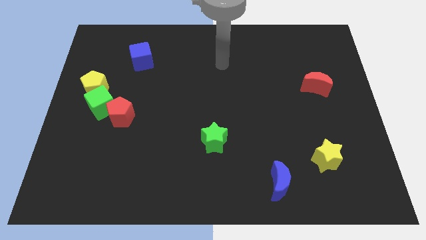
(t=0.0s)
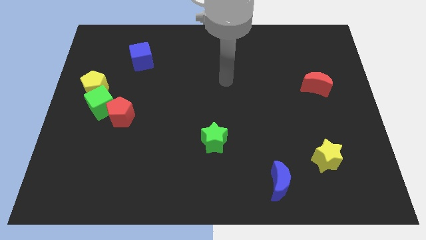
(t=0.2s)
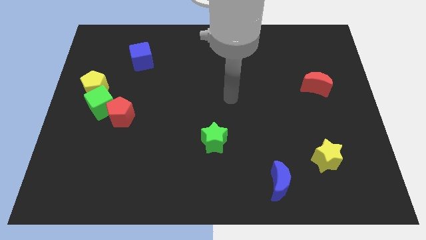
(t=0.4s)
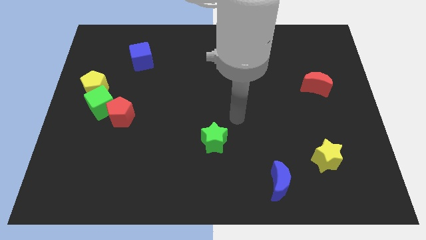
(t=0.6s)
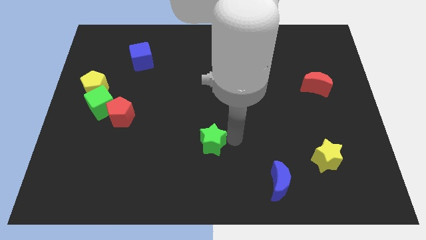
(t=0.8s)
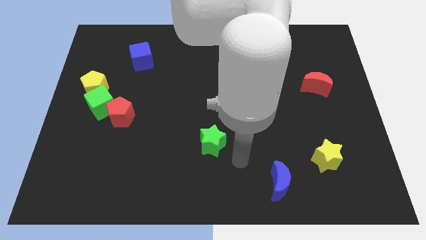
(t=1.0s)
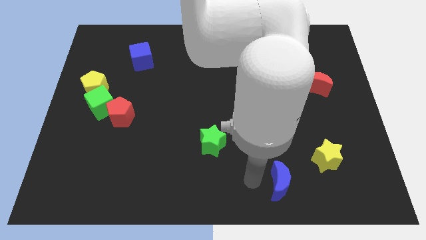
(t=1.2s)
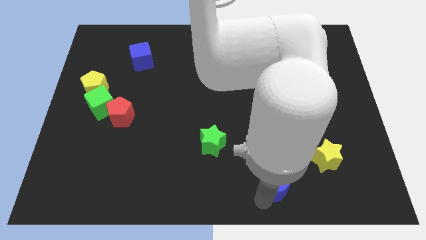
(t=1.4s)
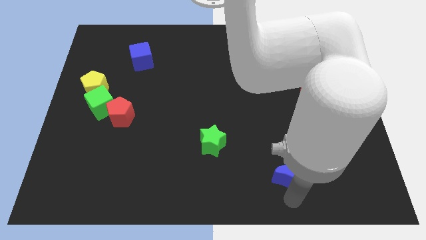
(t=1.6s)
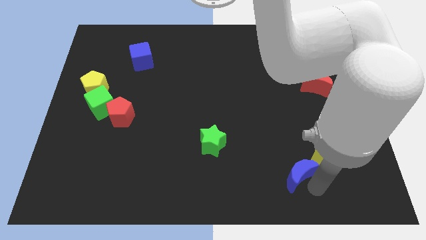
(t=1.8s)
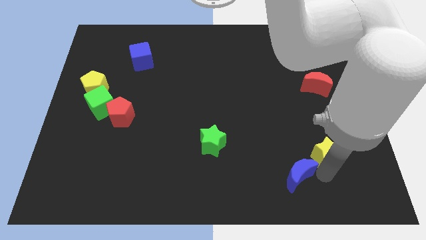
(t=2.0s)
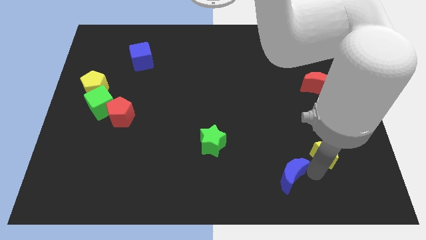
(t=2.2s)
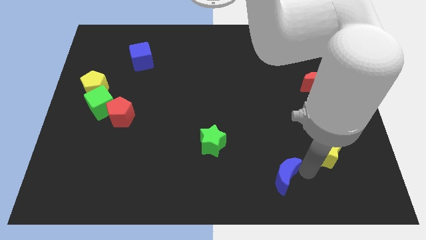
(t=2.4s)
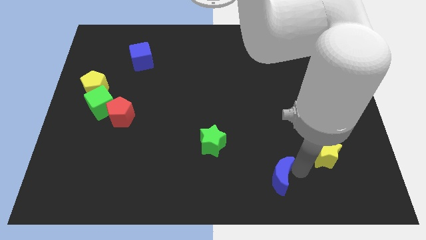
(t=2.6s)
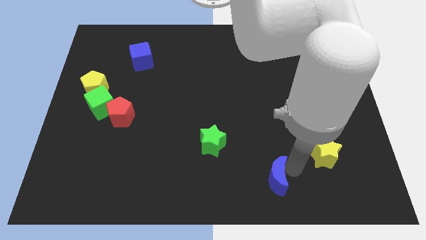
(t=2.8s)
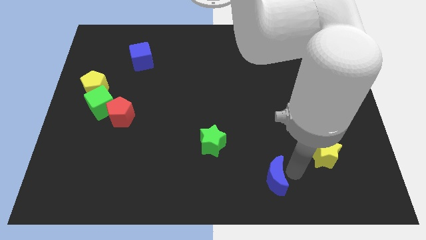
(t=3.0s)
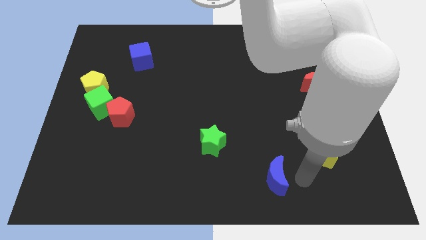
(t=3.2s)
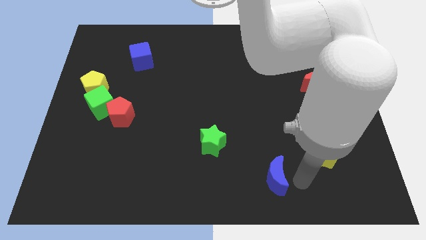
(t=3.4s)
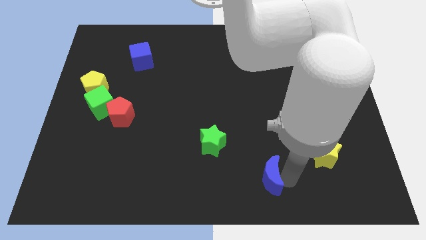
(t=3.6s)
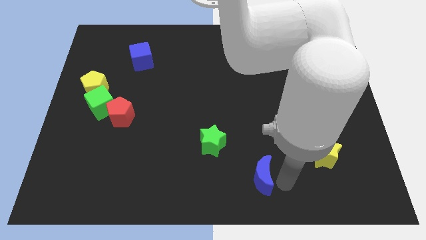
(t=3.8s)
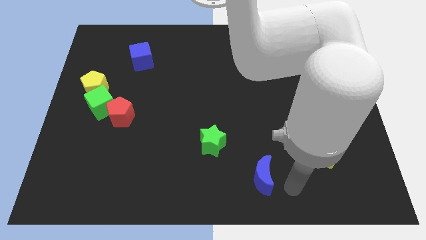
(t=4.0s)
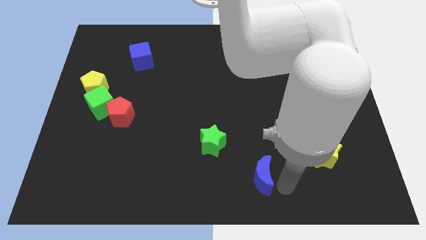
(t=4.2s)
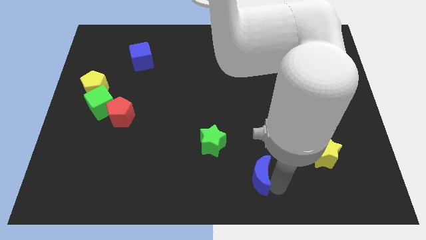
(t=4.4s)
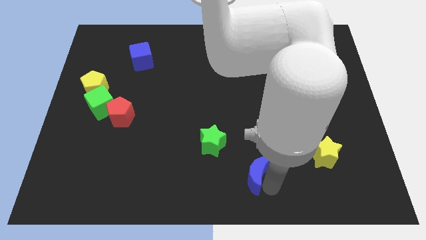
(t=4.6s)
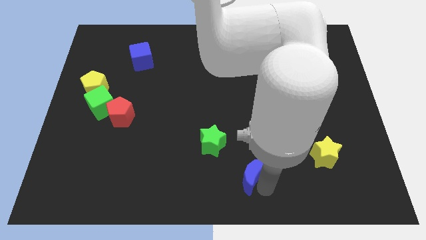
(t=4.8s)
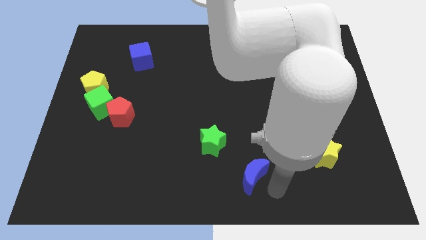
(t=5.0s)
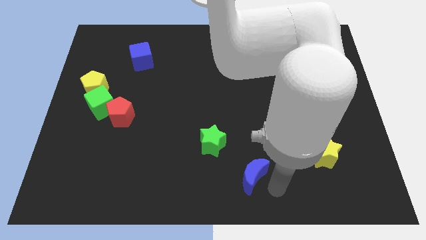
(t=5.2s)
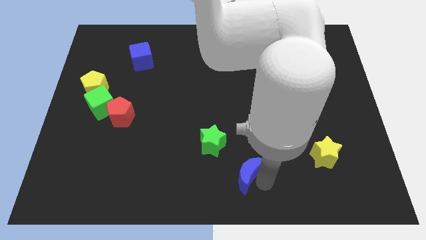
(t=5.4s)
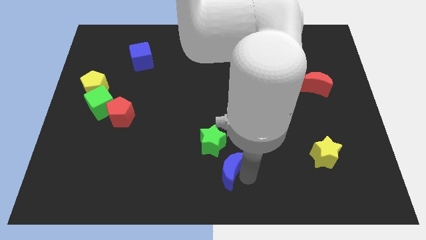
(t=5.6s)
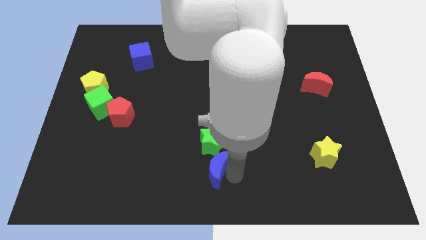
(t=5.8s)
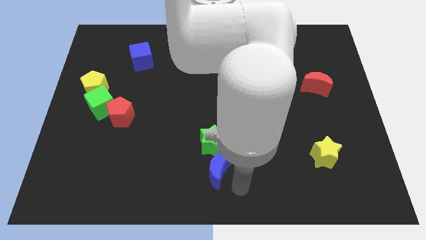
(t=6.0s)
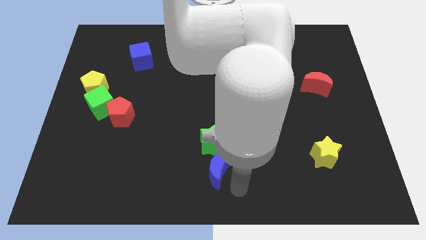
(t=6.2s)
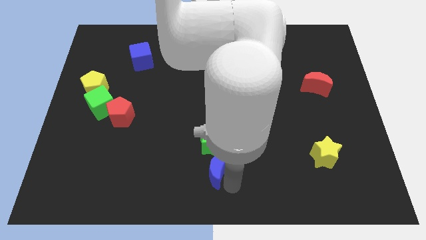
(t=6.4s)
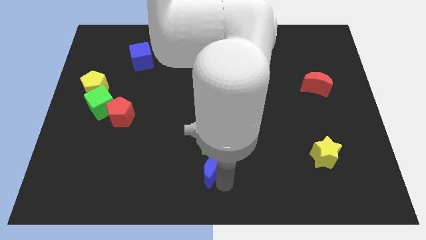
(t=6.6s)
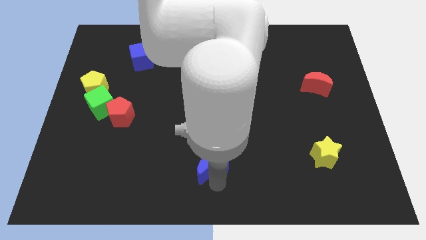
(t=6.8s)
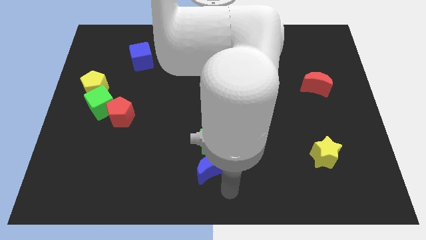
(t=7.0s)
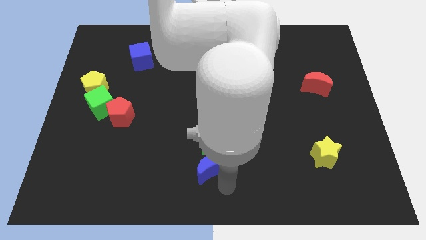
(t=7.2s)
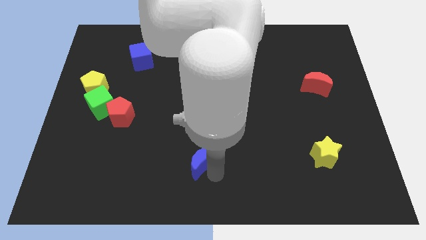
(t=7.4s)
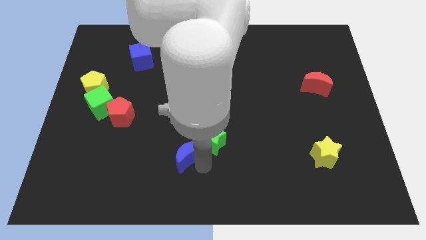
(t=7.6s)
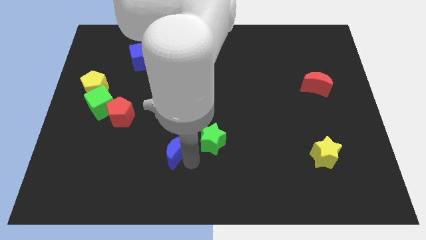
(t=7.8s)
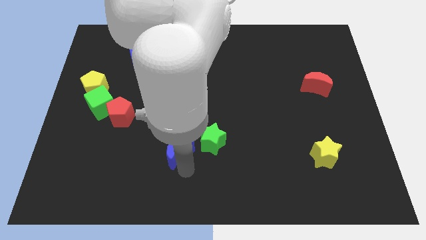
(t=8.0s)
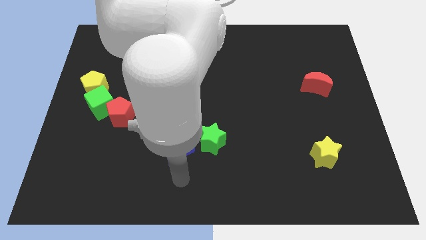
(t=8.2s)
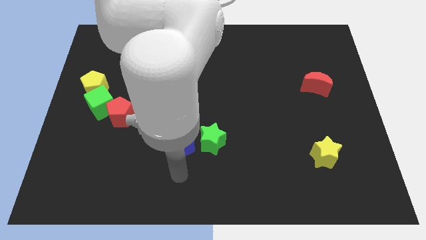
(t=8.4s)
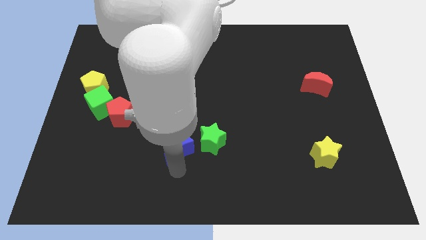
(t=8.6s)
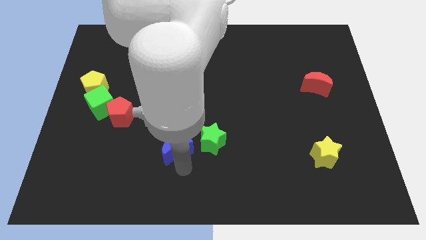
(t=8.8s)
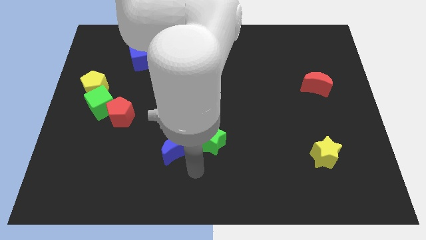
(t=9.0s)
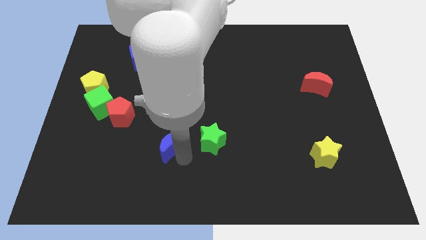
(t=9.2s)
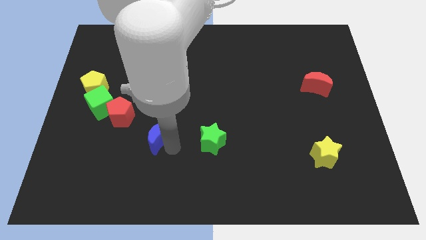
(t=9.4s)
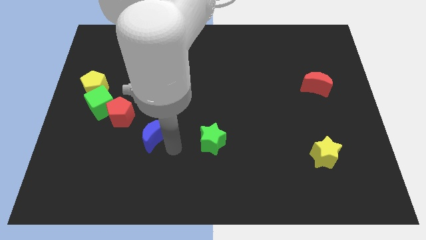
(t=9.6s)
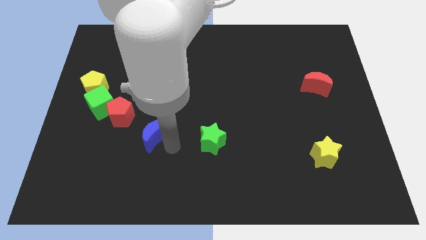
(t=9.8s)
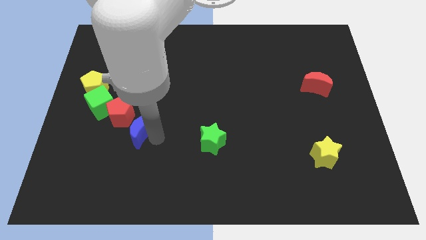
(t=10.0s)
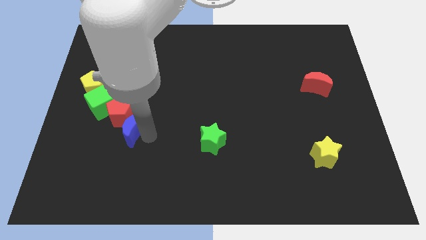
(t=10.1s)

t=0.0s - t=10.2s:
move the blue moon close to the red pentagon

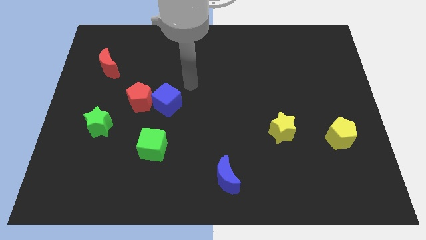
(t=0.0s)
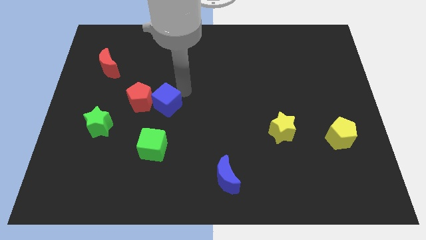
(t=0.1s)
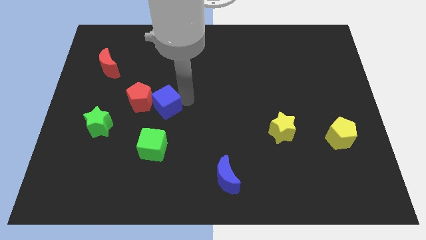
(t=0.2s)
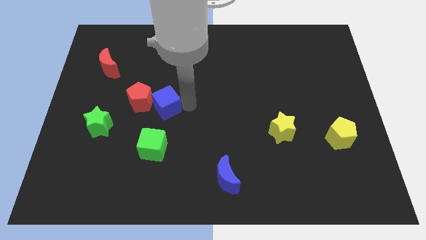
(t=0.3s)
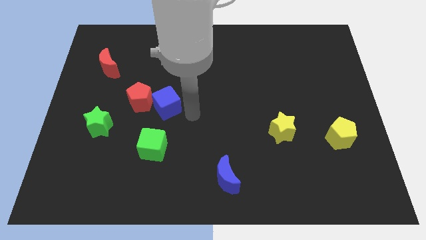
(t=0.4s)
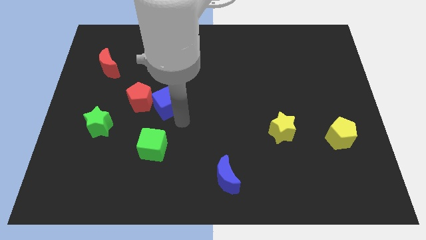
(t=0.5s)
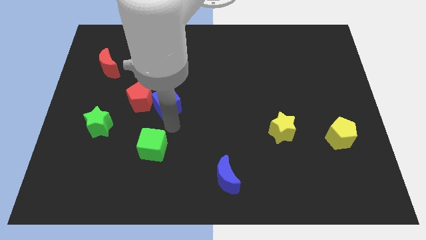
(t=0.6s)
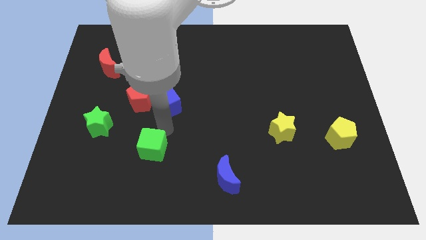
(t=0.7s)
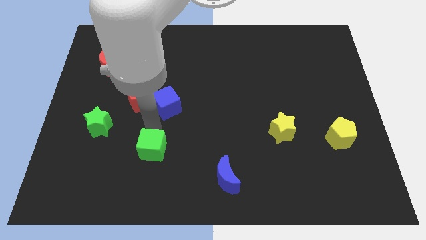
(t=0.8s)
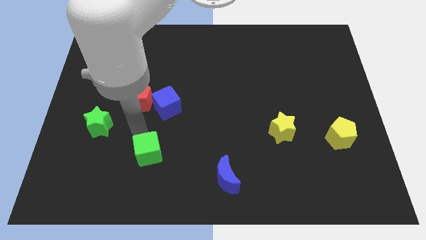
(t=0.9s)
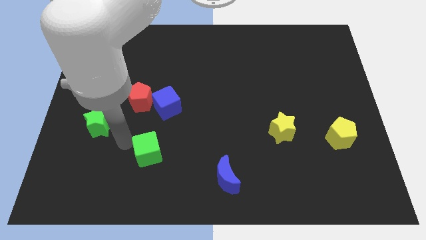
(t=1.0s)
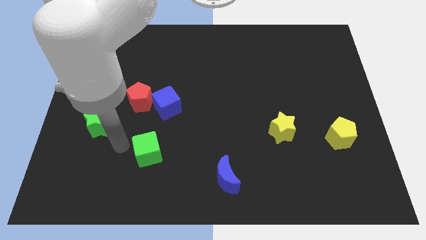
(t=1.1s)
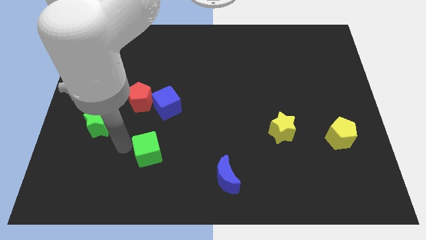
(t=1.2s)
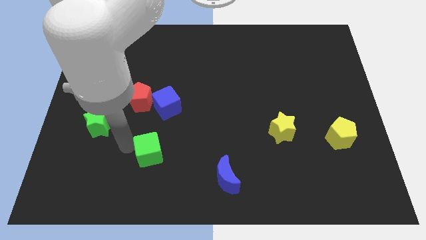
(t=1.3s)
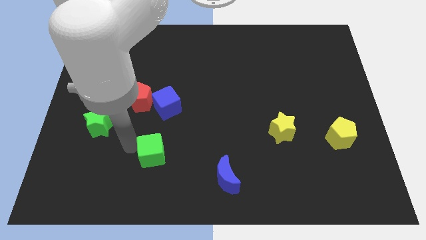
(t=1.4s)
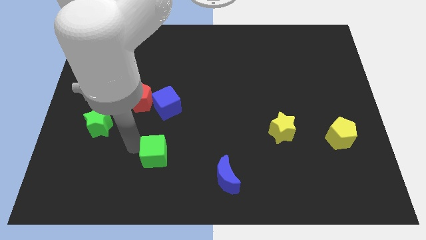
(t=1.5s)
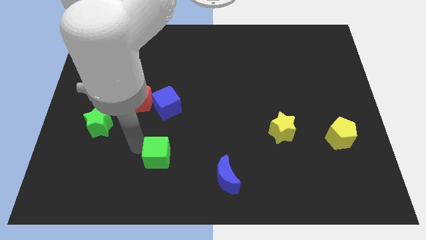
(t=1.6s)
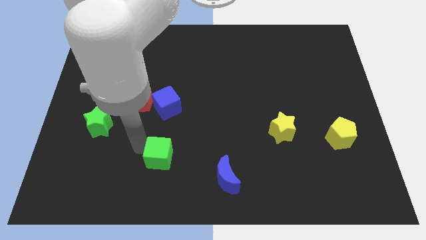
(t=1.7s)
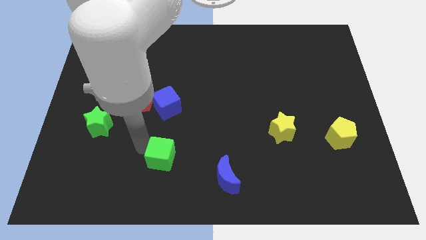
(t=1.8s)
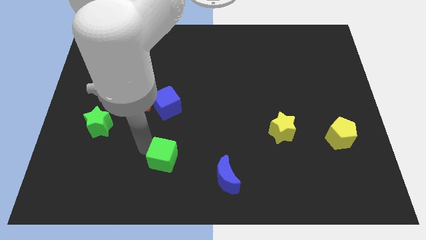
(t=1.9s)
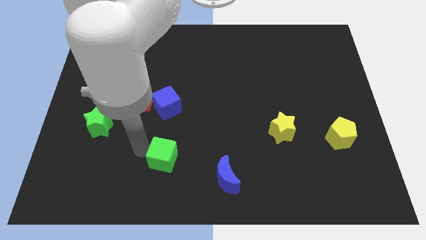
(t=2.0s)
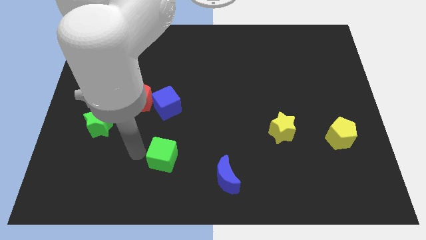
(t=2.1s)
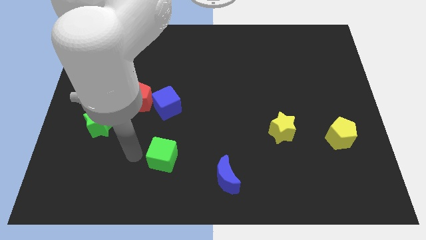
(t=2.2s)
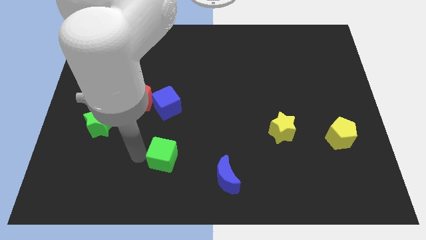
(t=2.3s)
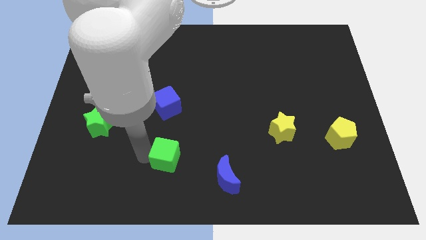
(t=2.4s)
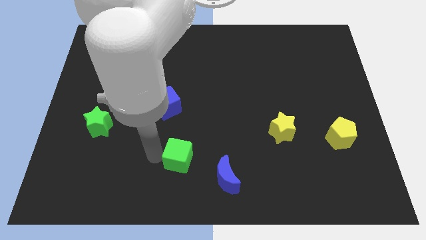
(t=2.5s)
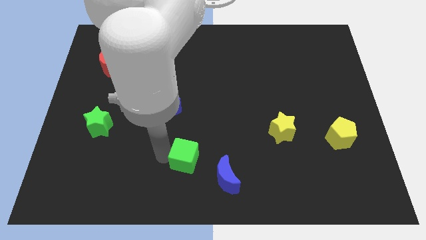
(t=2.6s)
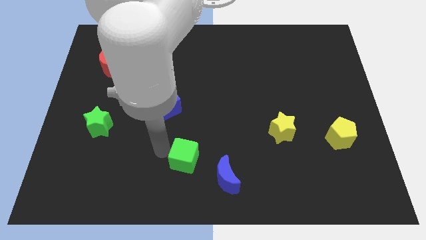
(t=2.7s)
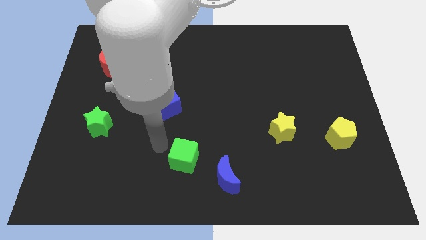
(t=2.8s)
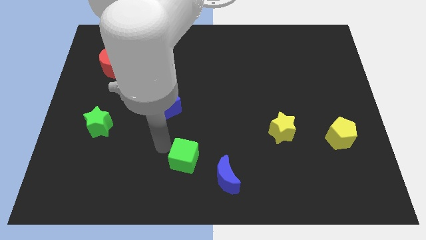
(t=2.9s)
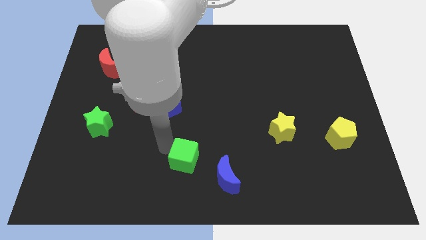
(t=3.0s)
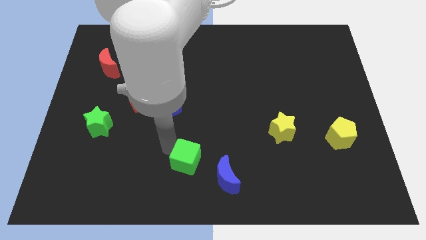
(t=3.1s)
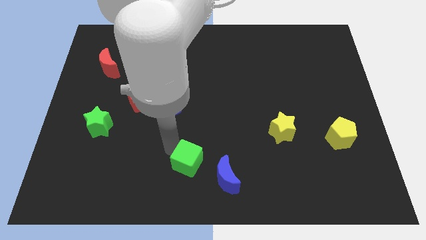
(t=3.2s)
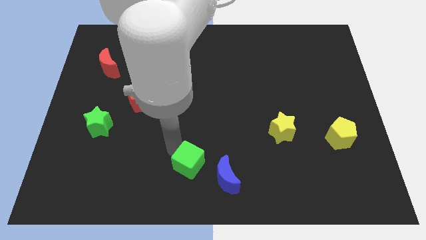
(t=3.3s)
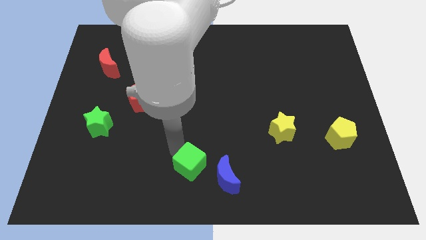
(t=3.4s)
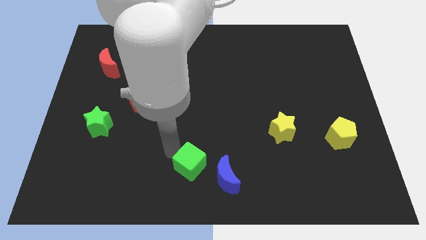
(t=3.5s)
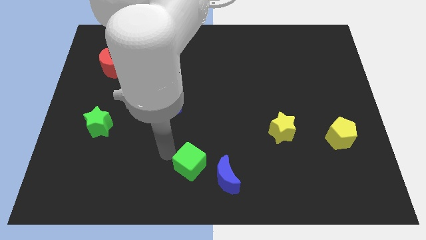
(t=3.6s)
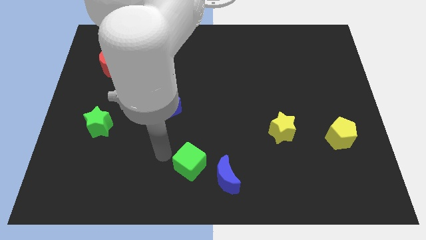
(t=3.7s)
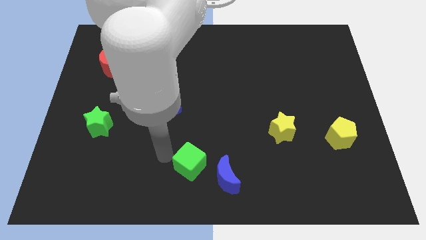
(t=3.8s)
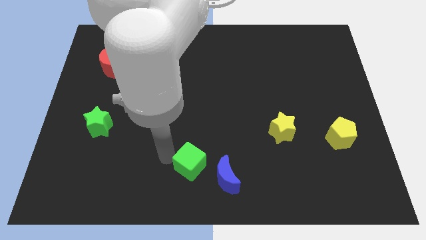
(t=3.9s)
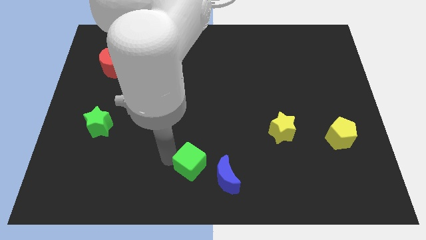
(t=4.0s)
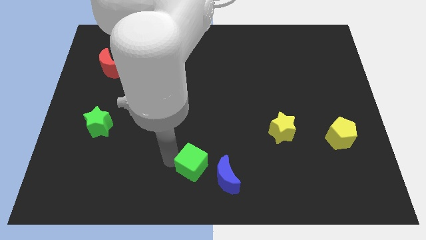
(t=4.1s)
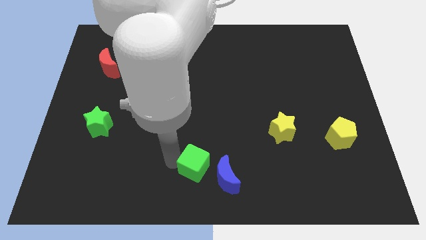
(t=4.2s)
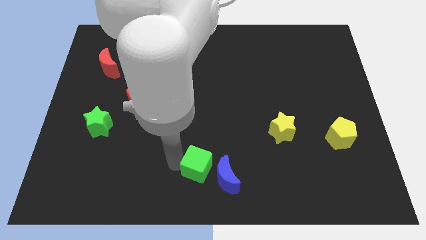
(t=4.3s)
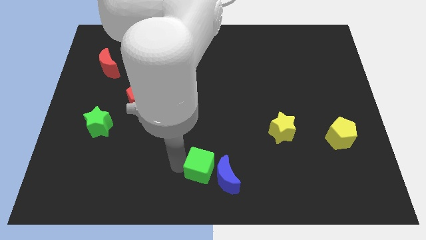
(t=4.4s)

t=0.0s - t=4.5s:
slide the green cube close to the blue moon
